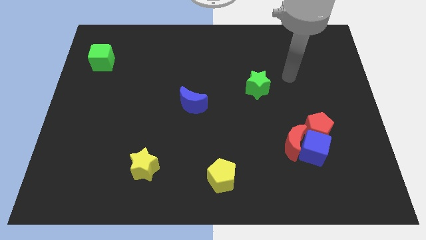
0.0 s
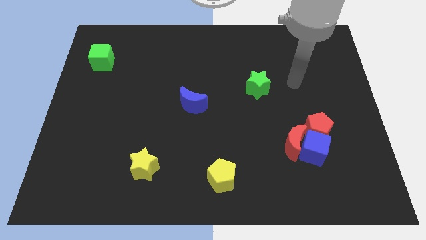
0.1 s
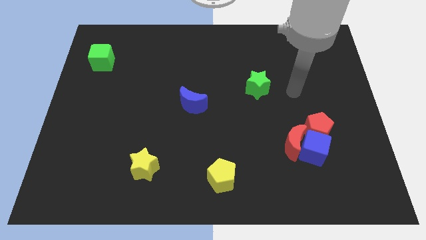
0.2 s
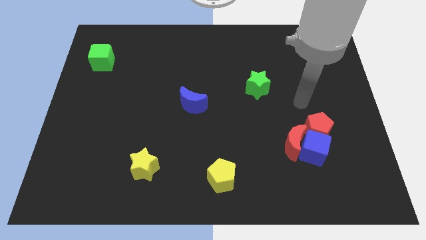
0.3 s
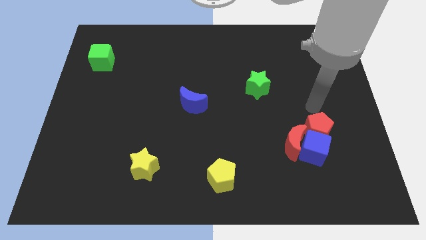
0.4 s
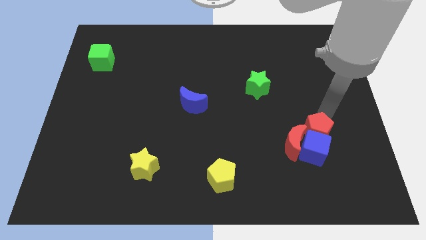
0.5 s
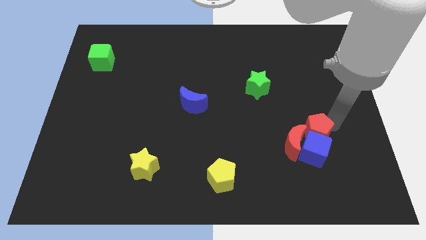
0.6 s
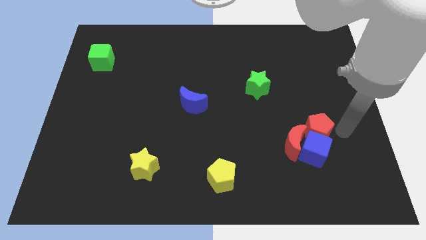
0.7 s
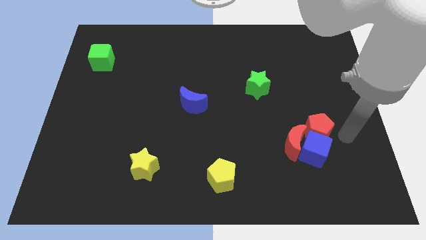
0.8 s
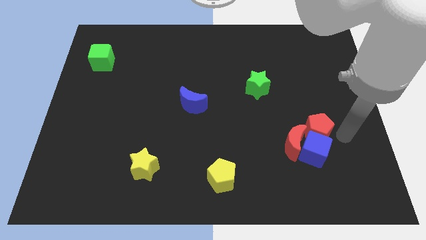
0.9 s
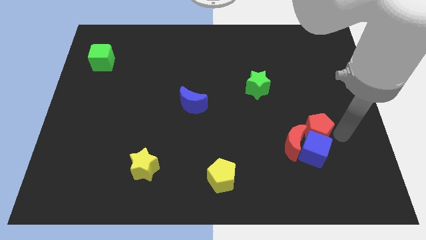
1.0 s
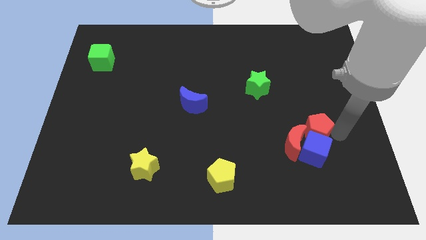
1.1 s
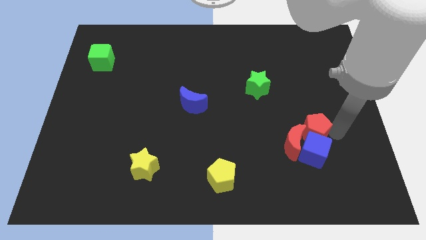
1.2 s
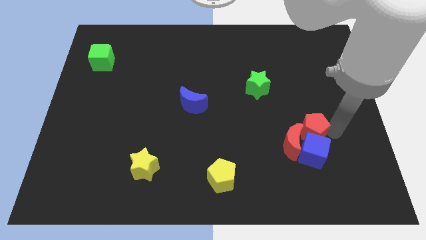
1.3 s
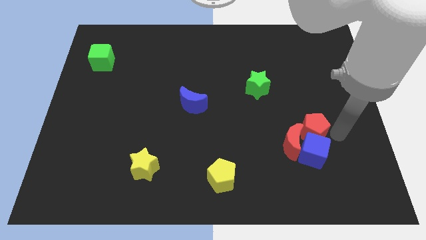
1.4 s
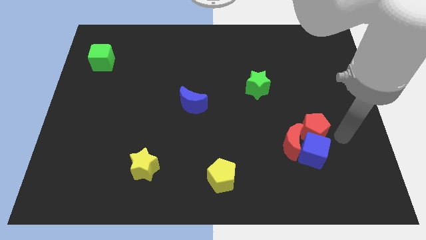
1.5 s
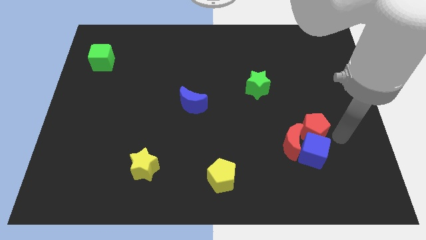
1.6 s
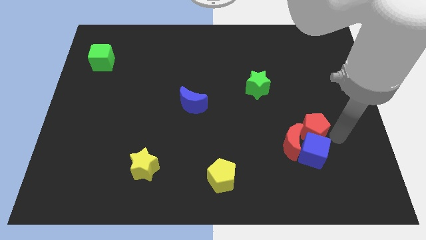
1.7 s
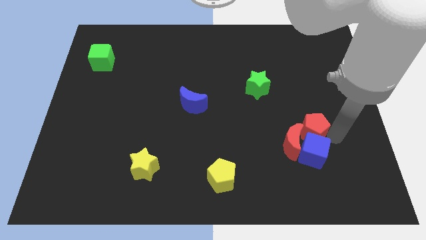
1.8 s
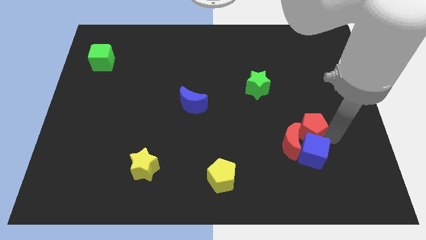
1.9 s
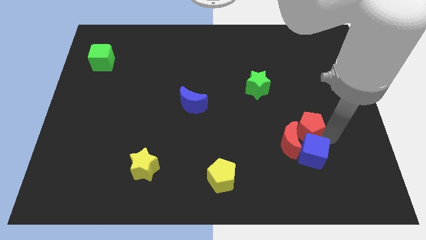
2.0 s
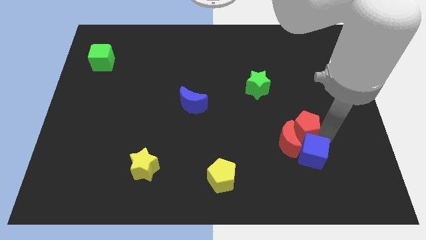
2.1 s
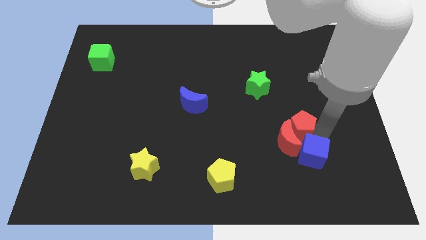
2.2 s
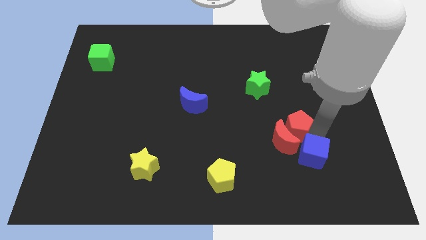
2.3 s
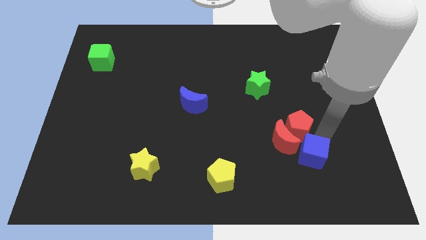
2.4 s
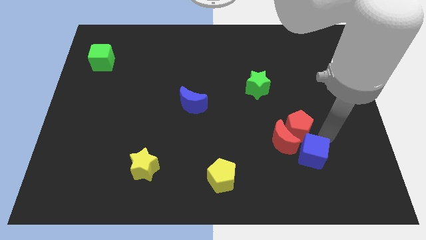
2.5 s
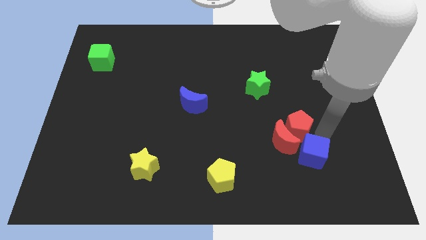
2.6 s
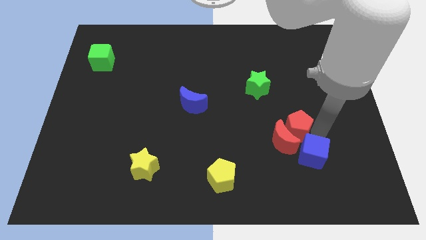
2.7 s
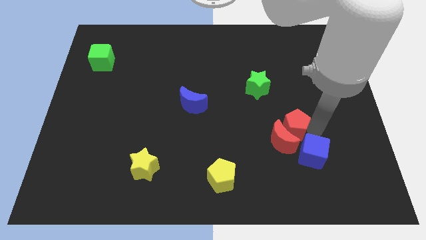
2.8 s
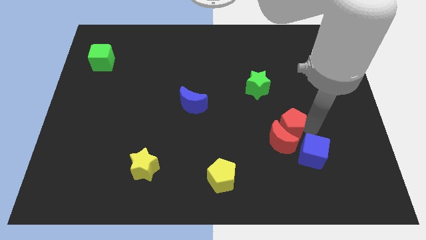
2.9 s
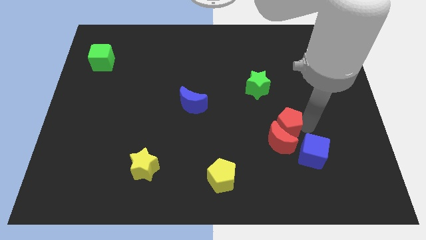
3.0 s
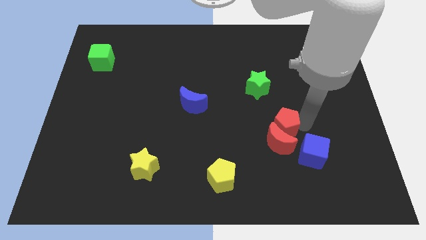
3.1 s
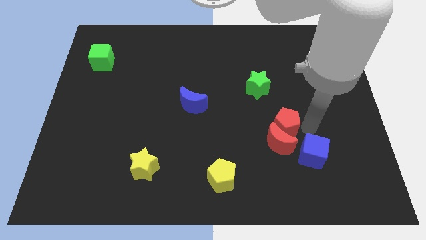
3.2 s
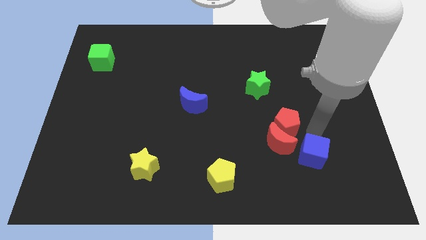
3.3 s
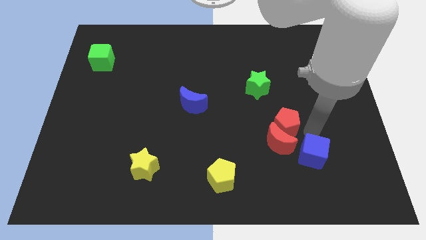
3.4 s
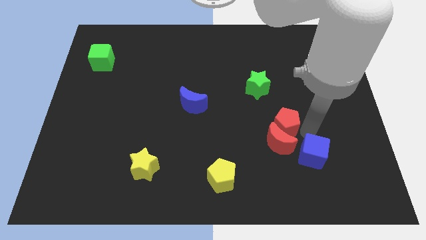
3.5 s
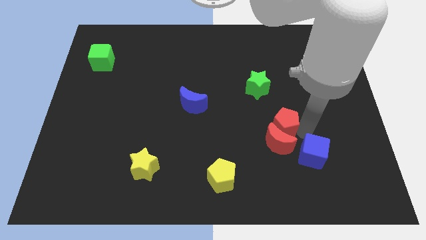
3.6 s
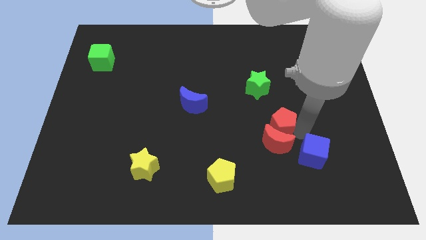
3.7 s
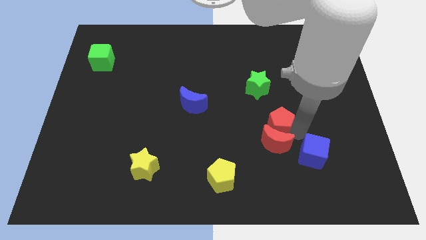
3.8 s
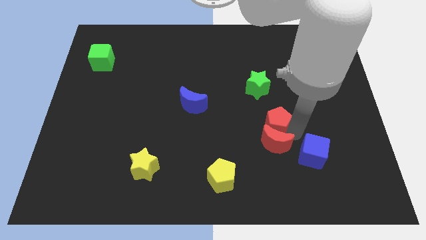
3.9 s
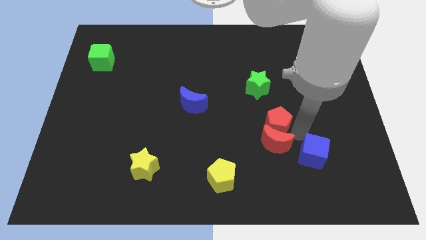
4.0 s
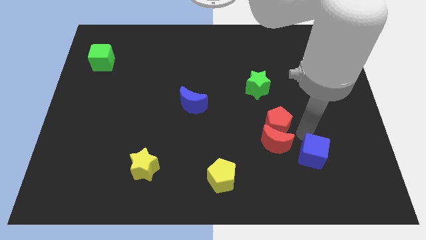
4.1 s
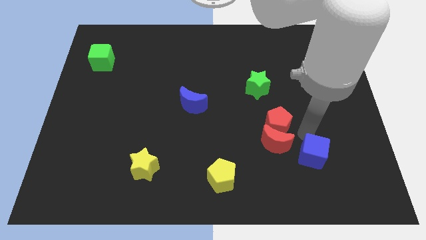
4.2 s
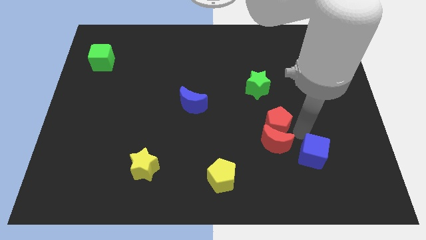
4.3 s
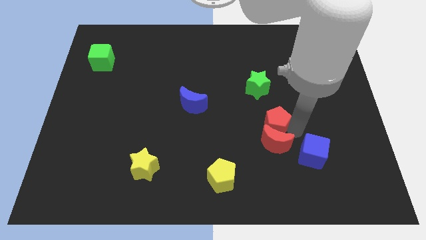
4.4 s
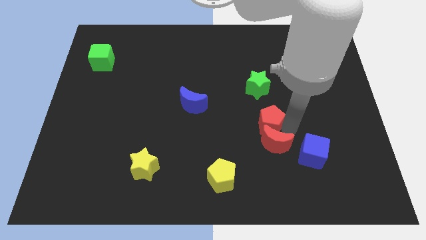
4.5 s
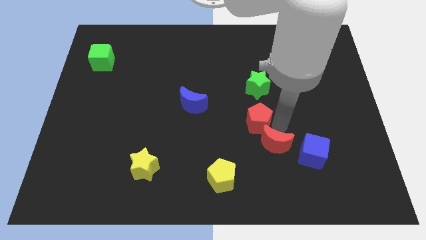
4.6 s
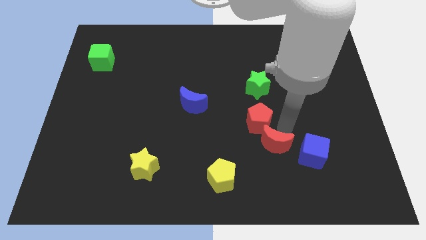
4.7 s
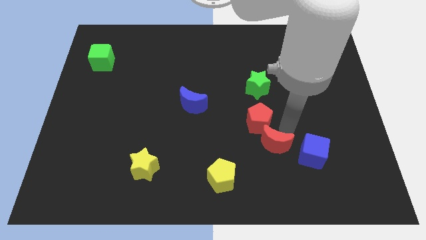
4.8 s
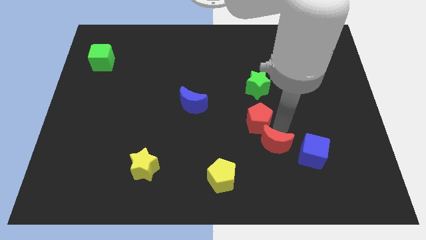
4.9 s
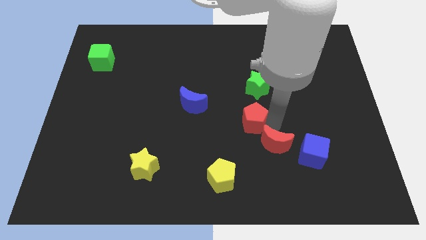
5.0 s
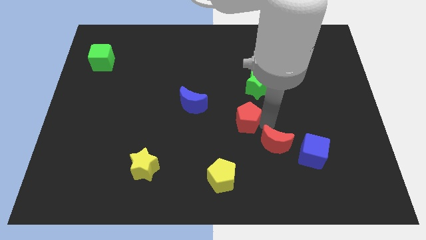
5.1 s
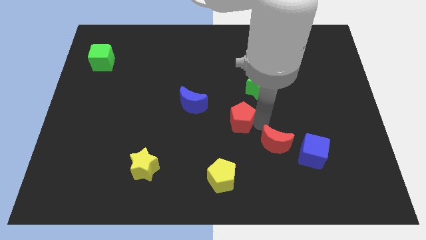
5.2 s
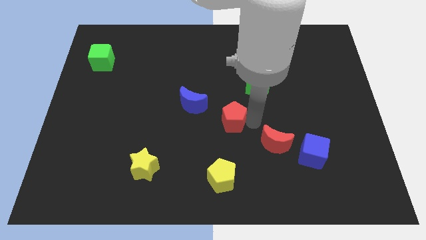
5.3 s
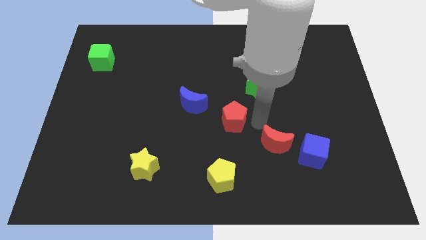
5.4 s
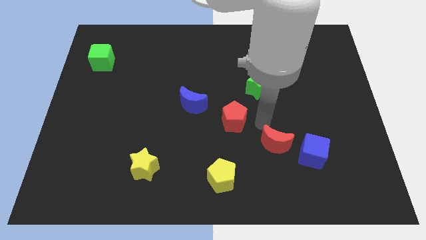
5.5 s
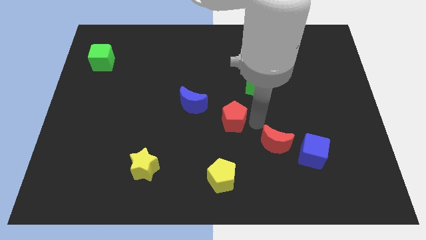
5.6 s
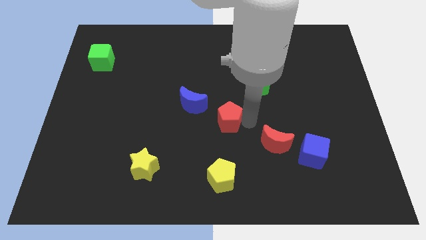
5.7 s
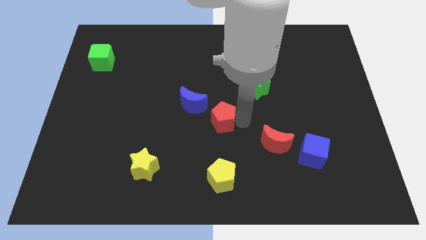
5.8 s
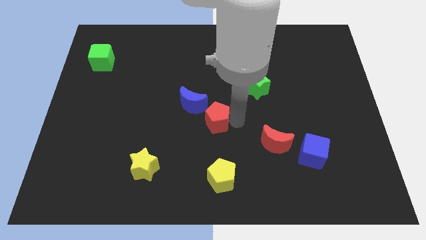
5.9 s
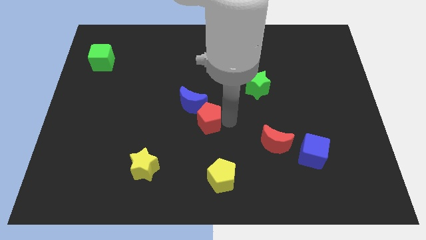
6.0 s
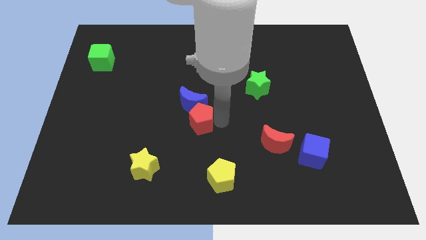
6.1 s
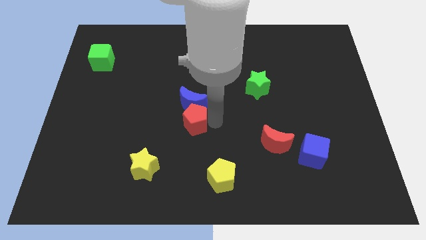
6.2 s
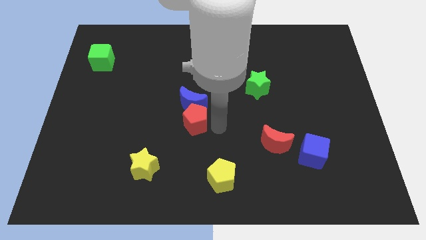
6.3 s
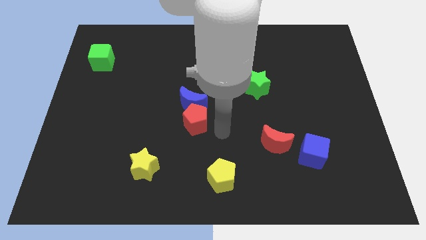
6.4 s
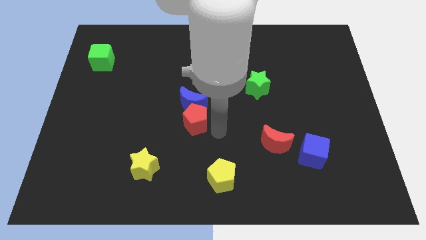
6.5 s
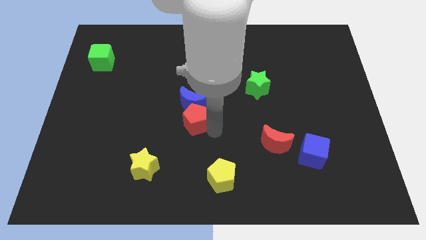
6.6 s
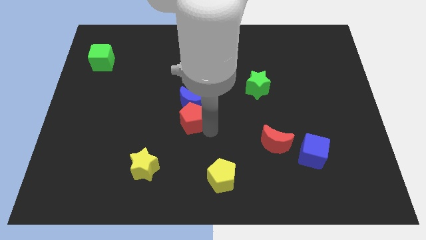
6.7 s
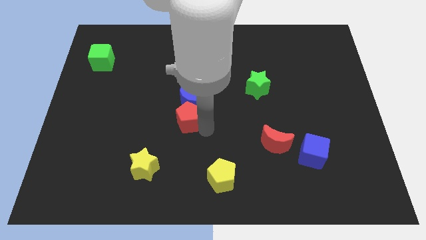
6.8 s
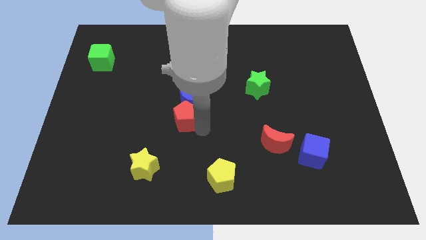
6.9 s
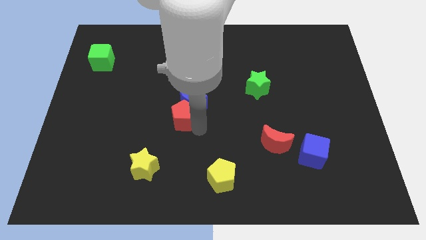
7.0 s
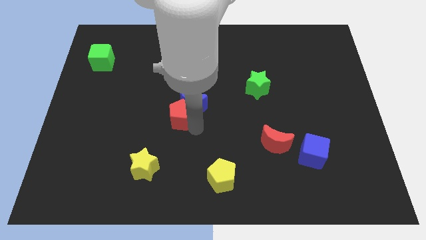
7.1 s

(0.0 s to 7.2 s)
push the red pentagon left of the blue moon
